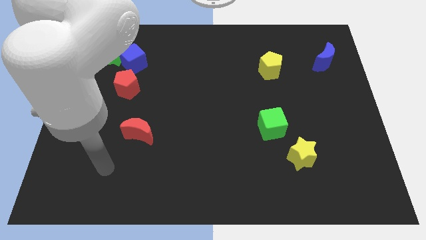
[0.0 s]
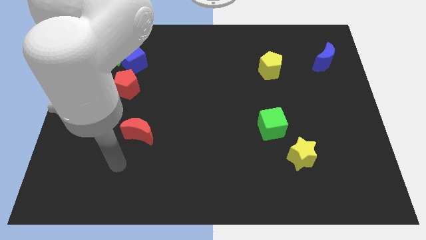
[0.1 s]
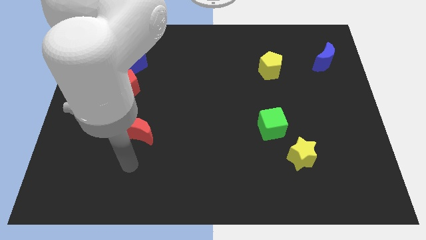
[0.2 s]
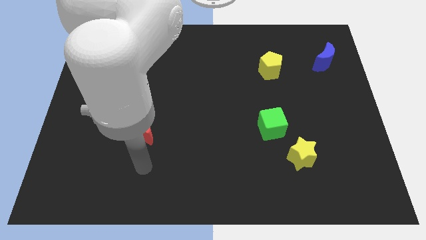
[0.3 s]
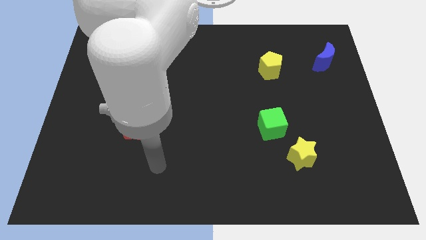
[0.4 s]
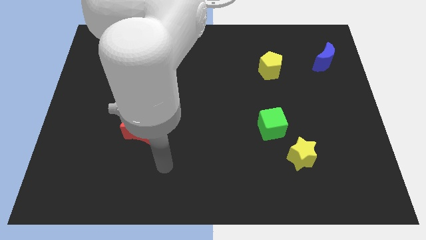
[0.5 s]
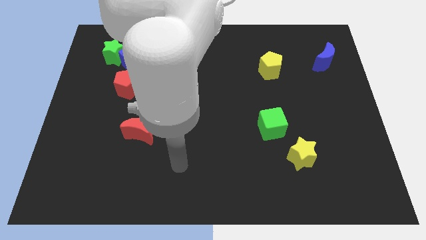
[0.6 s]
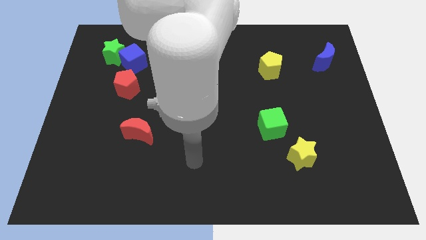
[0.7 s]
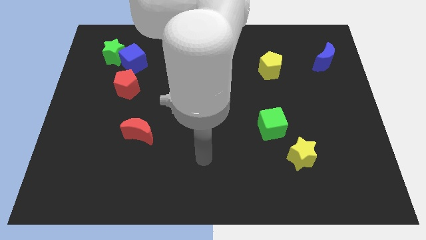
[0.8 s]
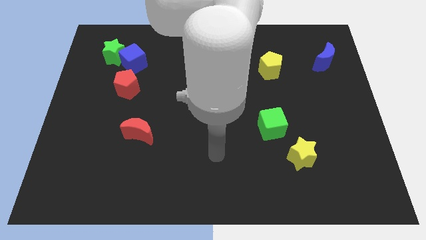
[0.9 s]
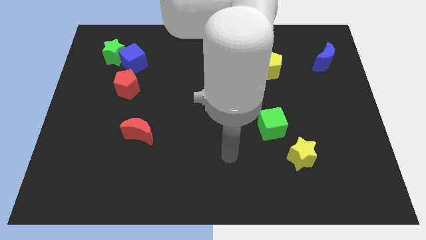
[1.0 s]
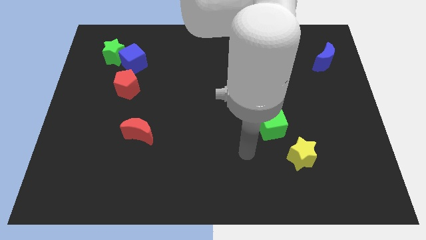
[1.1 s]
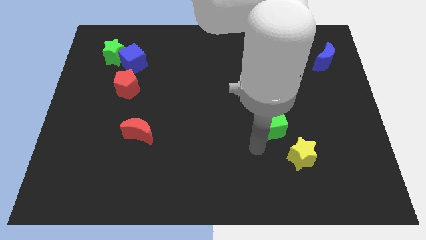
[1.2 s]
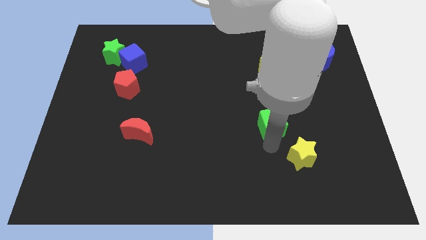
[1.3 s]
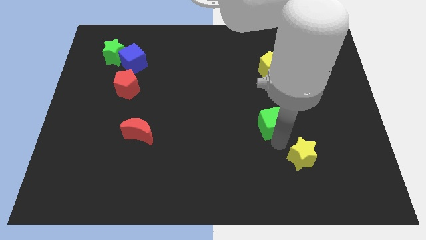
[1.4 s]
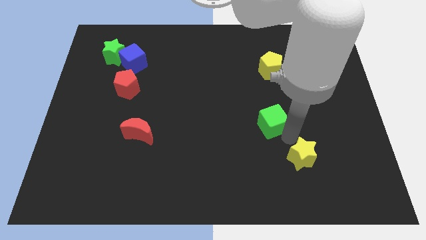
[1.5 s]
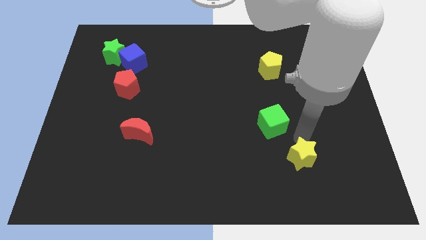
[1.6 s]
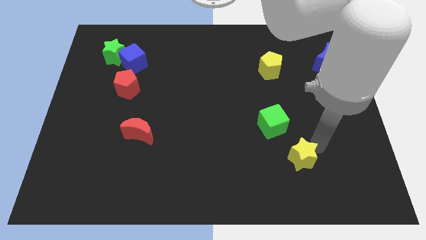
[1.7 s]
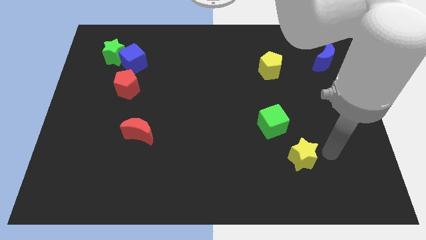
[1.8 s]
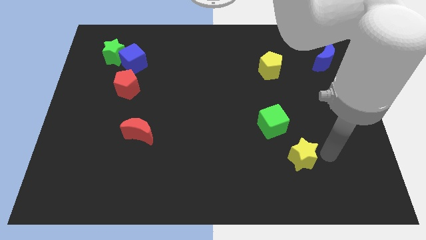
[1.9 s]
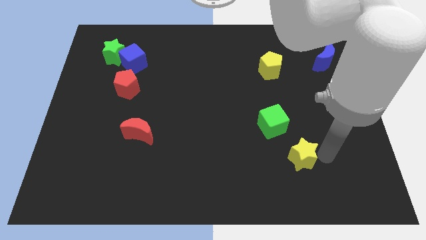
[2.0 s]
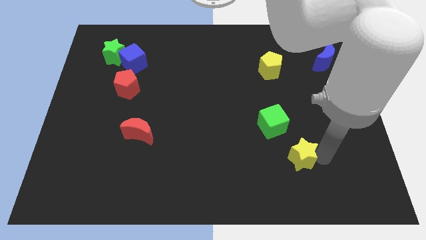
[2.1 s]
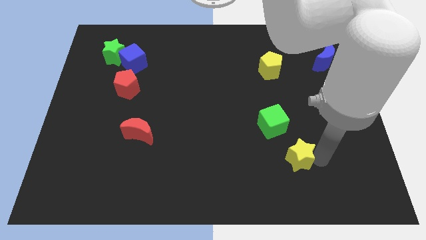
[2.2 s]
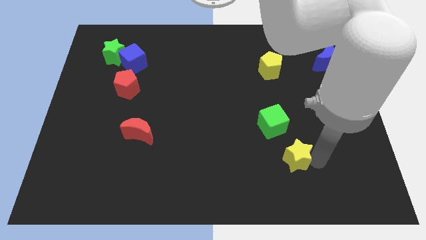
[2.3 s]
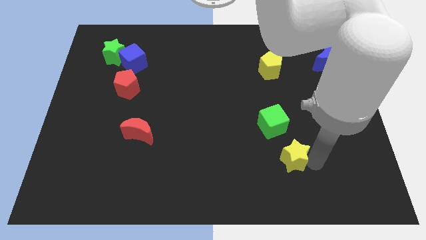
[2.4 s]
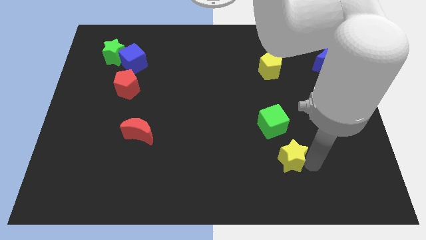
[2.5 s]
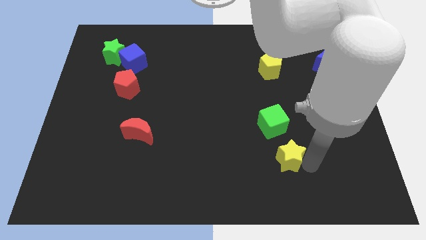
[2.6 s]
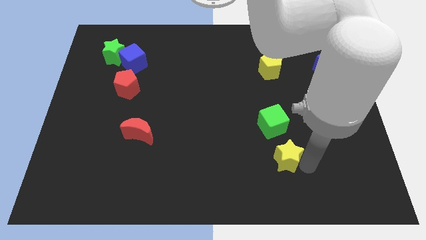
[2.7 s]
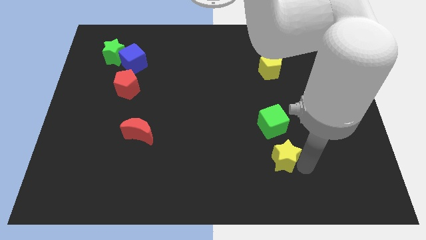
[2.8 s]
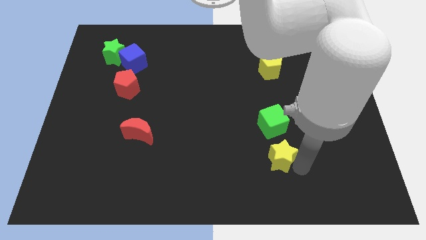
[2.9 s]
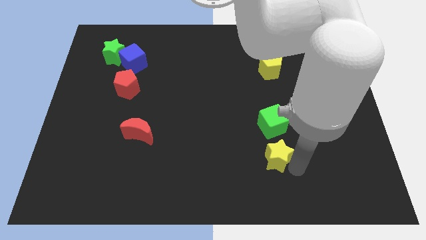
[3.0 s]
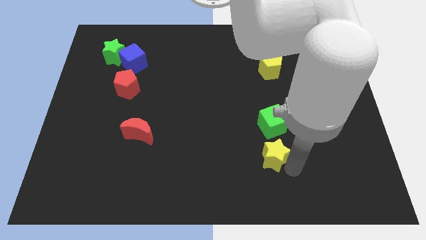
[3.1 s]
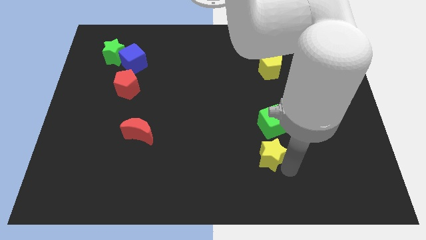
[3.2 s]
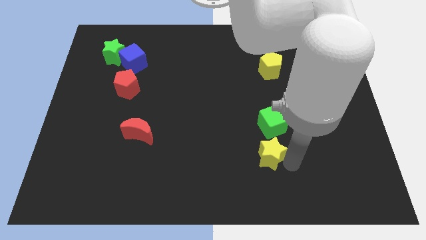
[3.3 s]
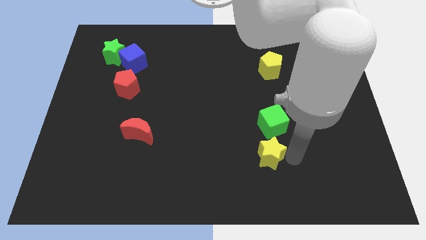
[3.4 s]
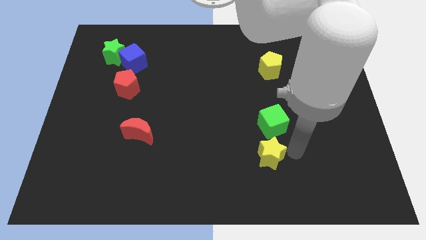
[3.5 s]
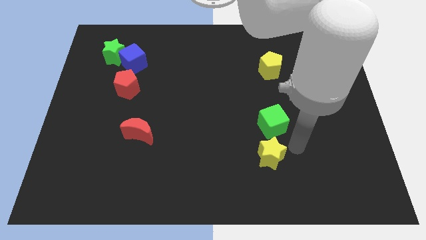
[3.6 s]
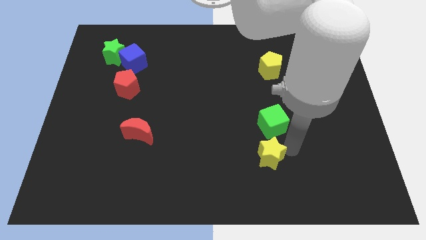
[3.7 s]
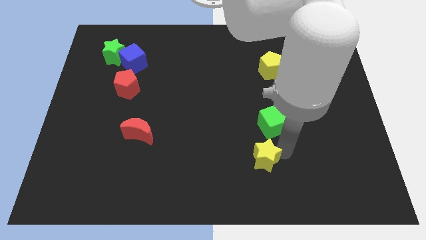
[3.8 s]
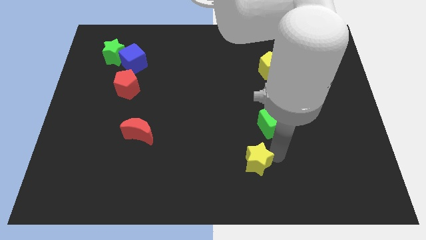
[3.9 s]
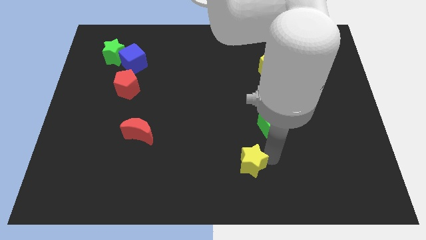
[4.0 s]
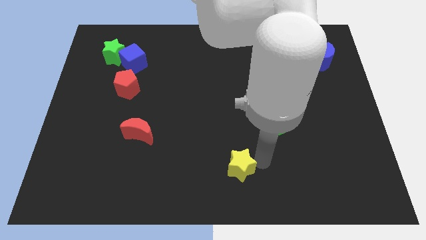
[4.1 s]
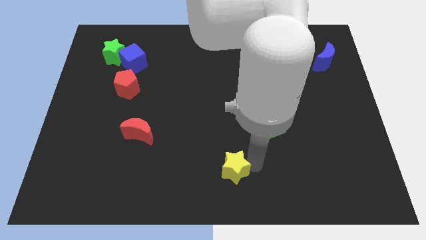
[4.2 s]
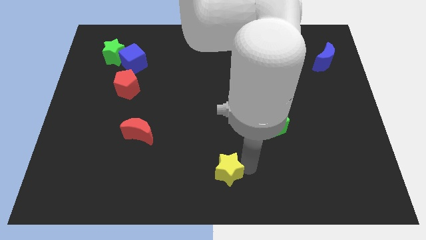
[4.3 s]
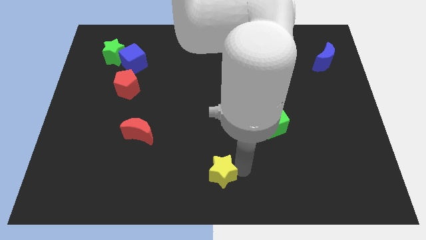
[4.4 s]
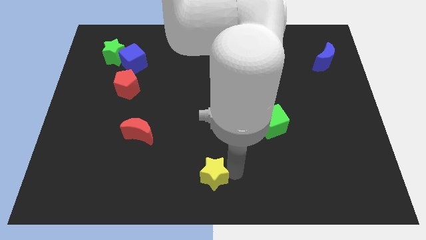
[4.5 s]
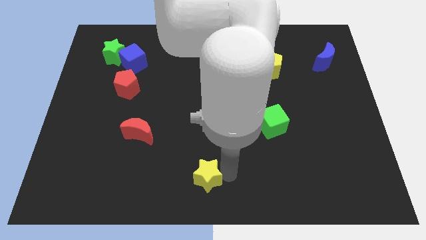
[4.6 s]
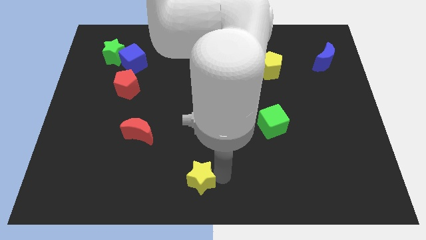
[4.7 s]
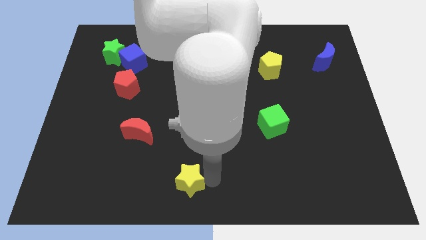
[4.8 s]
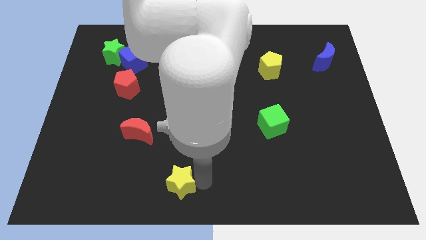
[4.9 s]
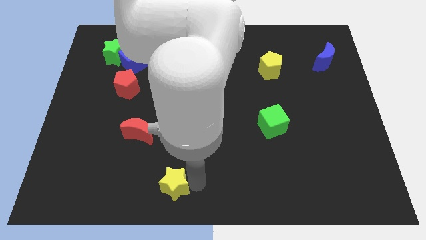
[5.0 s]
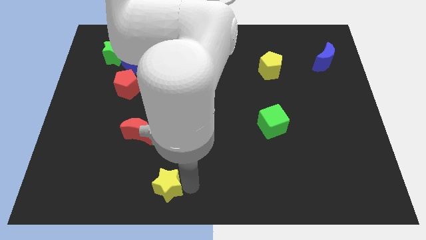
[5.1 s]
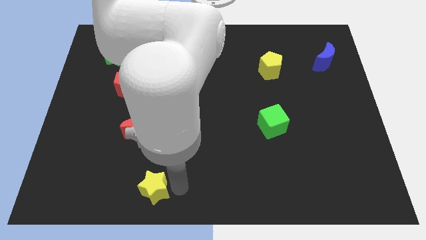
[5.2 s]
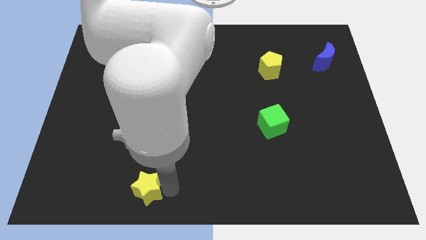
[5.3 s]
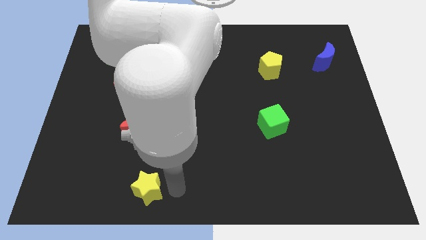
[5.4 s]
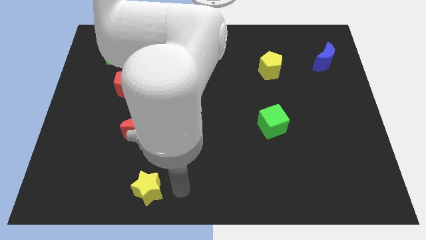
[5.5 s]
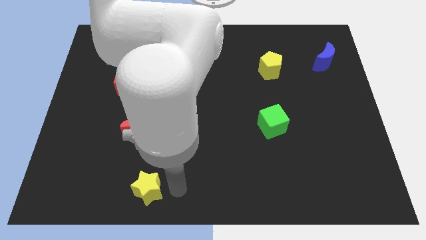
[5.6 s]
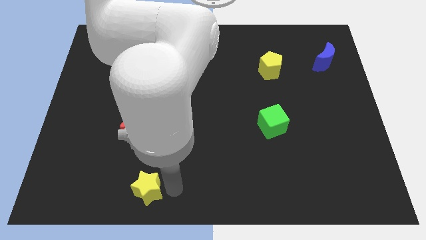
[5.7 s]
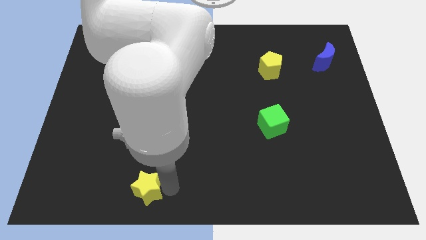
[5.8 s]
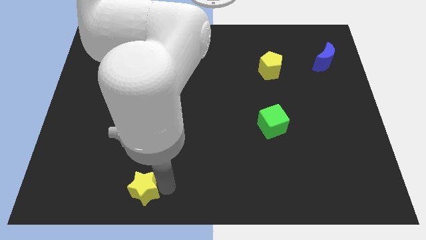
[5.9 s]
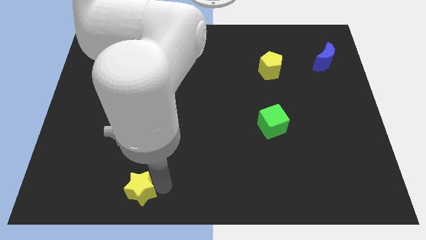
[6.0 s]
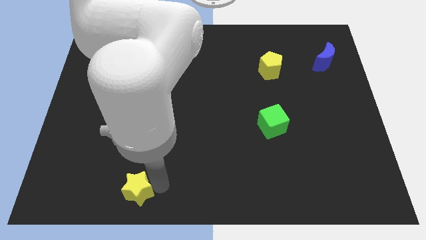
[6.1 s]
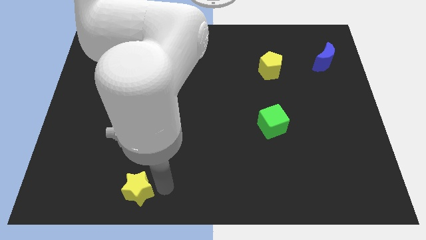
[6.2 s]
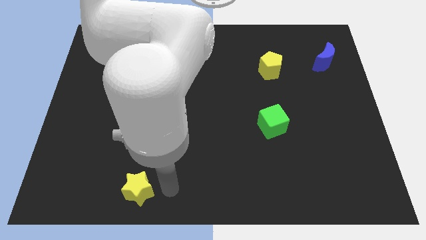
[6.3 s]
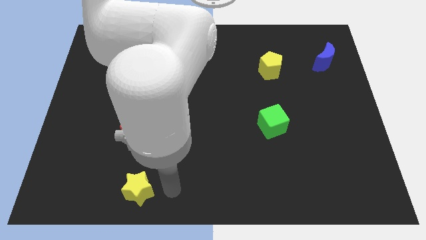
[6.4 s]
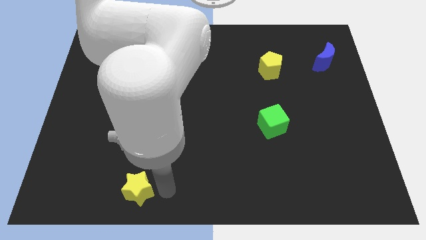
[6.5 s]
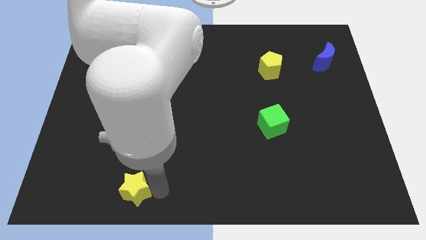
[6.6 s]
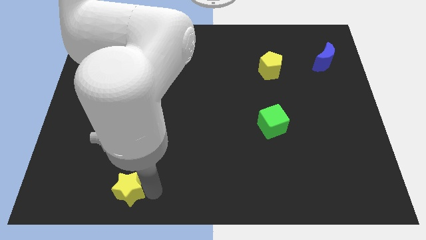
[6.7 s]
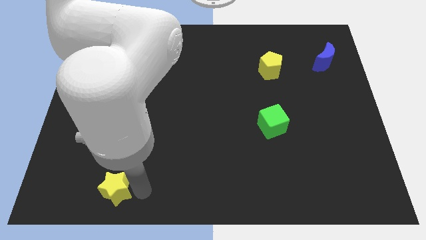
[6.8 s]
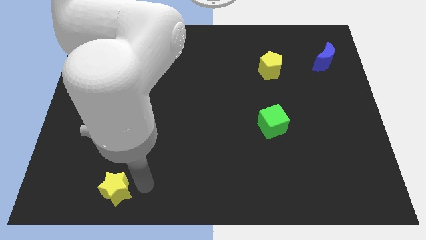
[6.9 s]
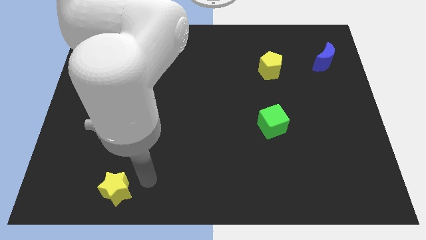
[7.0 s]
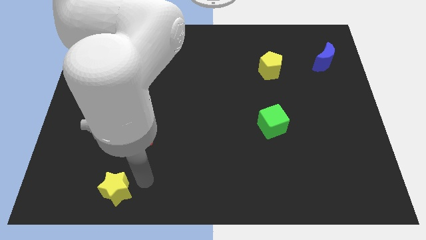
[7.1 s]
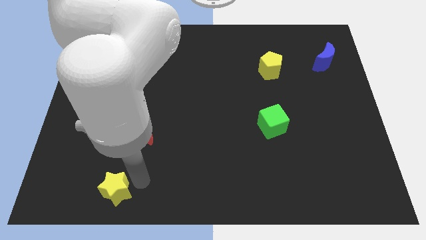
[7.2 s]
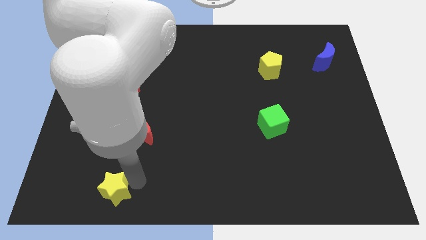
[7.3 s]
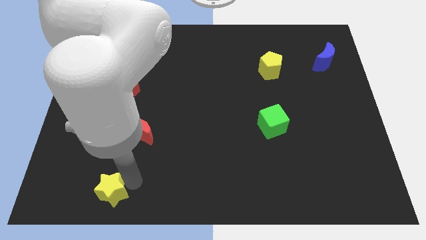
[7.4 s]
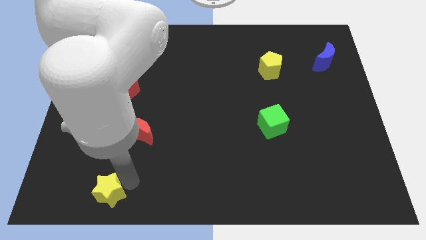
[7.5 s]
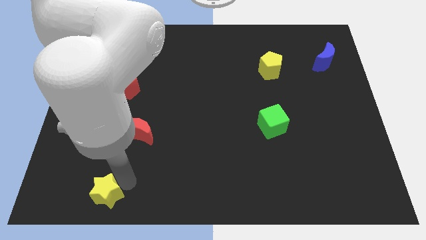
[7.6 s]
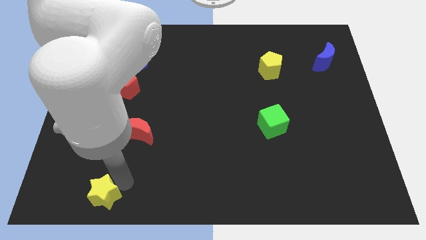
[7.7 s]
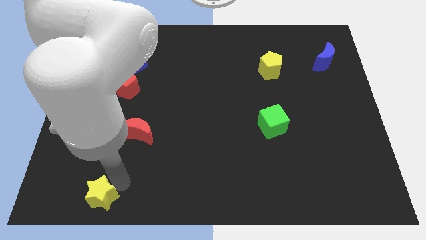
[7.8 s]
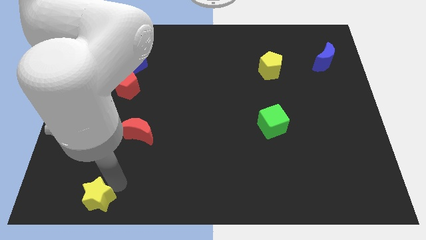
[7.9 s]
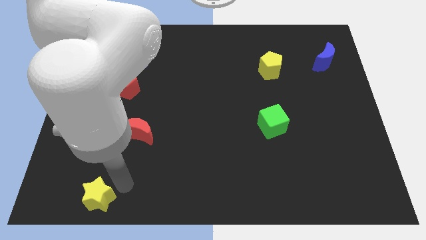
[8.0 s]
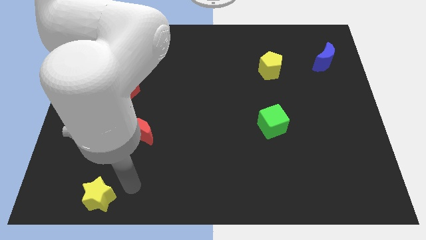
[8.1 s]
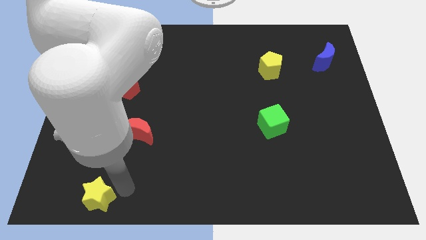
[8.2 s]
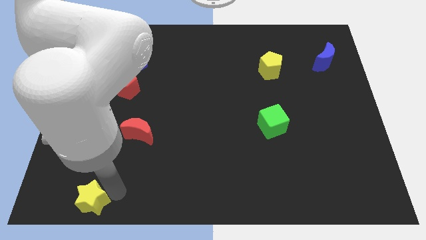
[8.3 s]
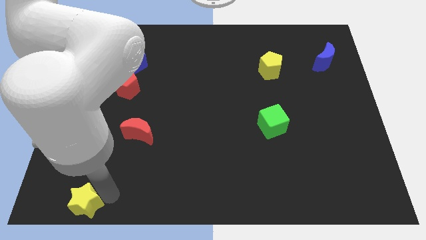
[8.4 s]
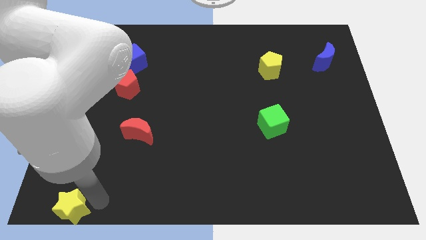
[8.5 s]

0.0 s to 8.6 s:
put the yellow star to the bottom left
